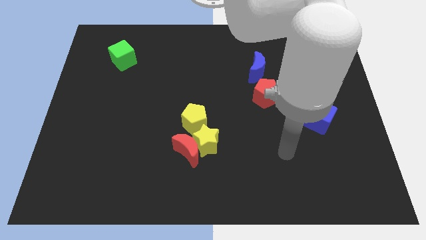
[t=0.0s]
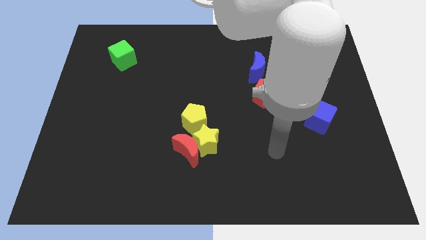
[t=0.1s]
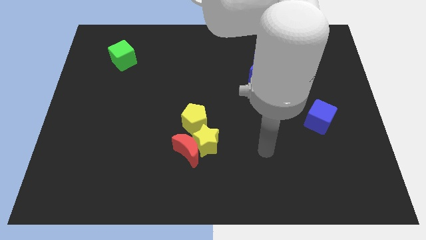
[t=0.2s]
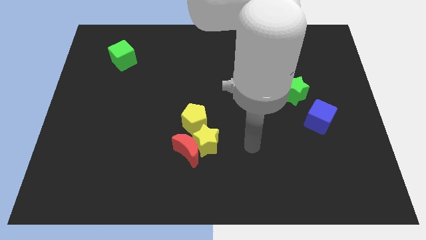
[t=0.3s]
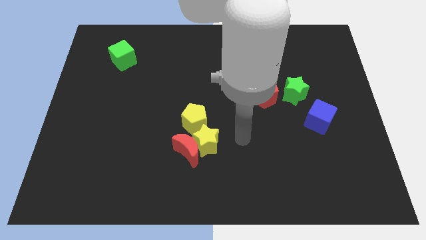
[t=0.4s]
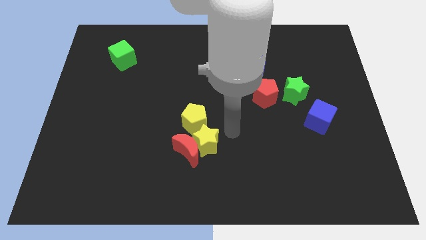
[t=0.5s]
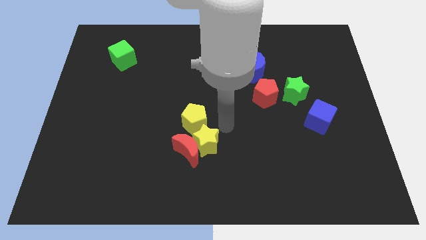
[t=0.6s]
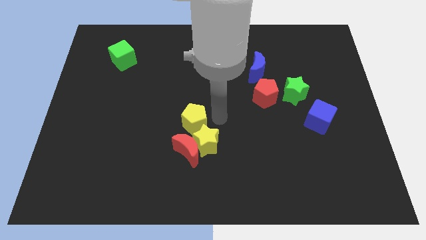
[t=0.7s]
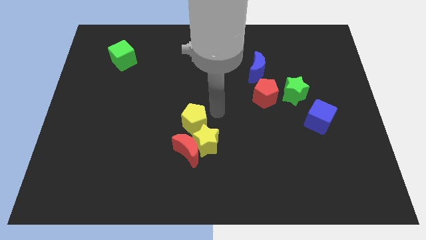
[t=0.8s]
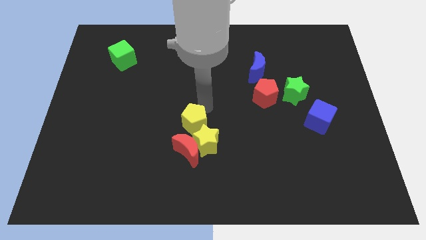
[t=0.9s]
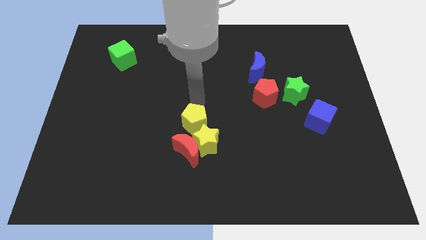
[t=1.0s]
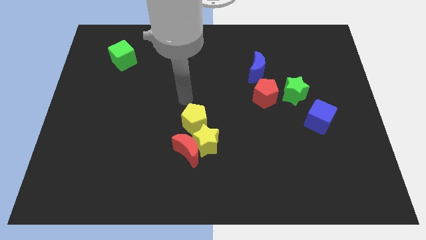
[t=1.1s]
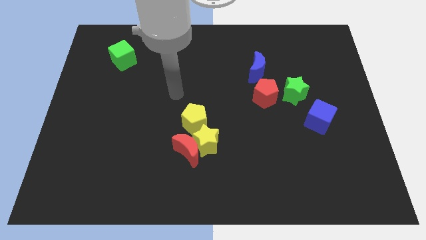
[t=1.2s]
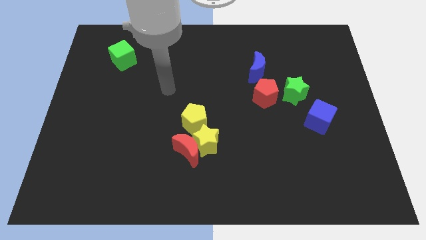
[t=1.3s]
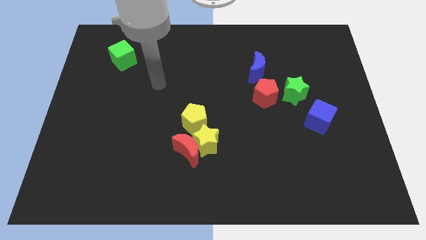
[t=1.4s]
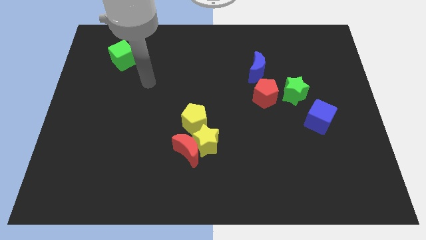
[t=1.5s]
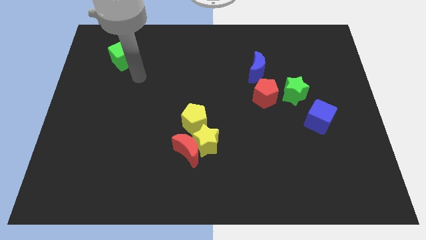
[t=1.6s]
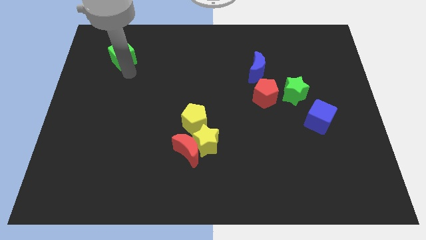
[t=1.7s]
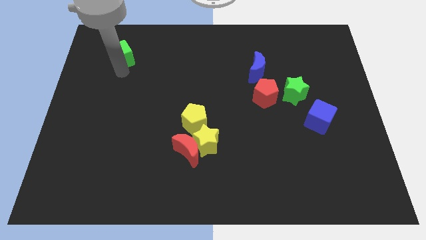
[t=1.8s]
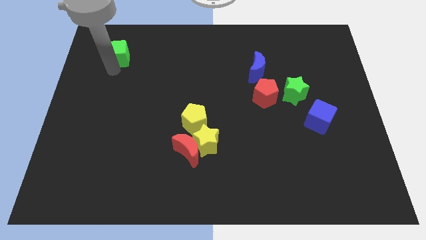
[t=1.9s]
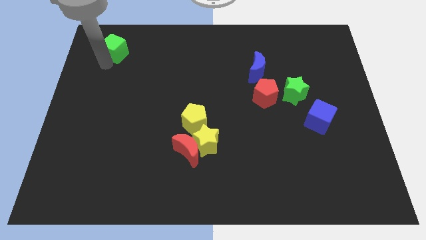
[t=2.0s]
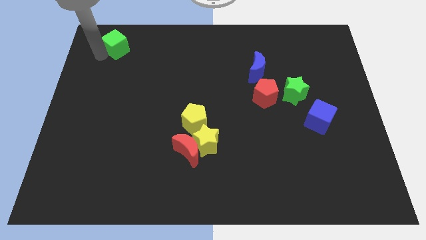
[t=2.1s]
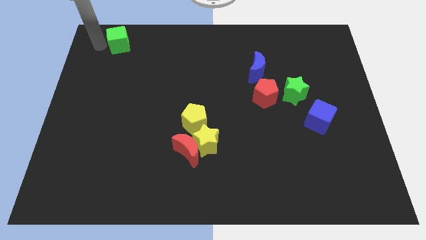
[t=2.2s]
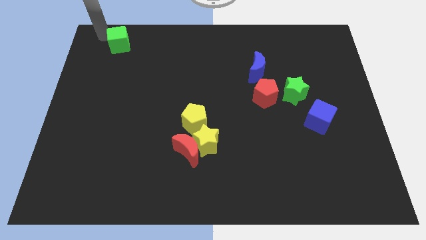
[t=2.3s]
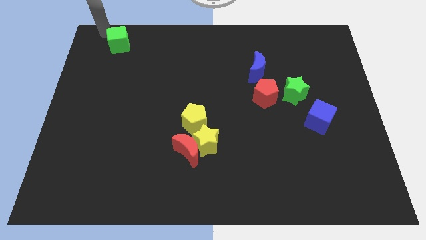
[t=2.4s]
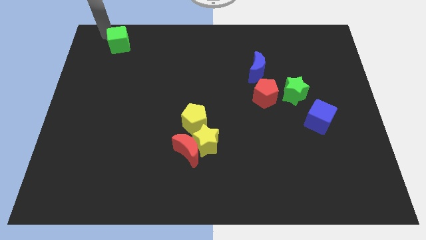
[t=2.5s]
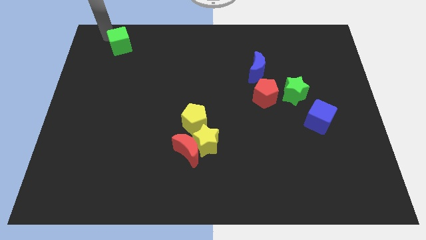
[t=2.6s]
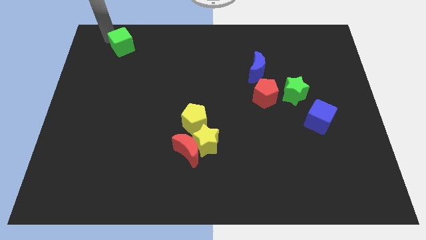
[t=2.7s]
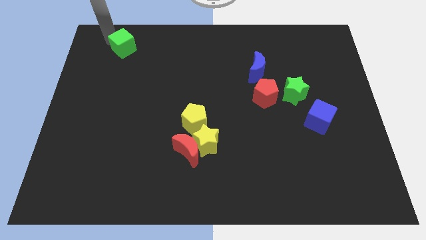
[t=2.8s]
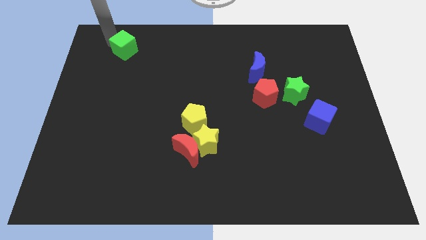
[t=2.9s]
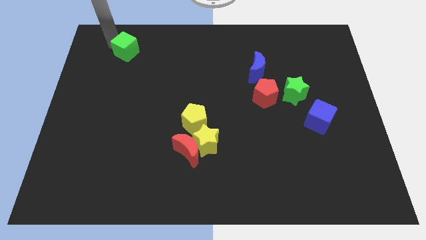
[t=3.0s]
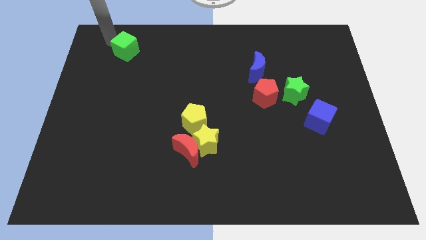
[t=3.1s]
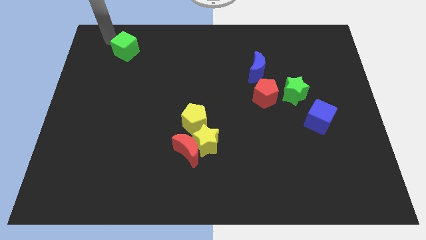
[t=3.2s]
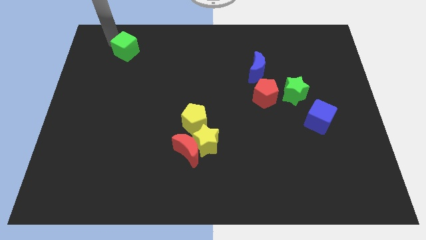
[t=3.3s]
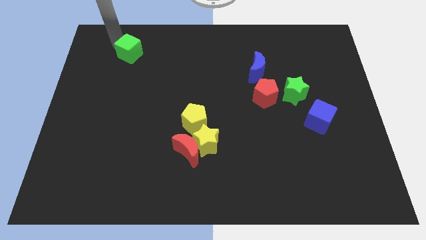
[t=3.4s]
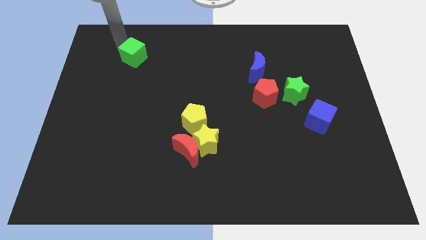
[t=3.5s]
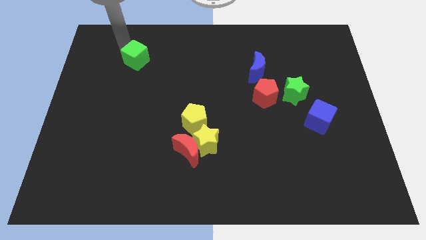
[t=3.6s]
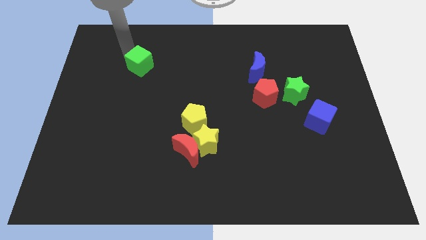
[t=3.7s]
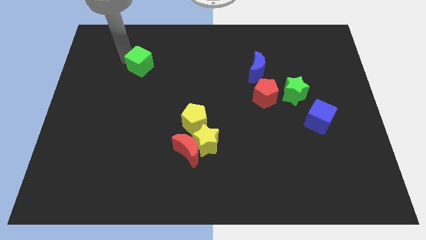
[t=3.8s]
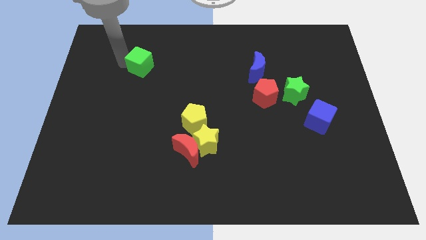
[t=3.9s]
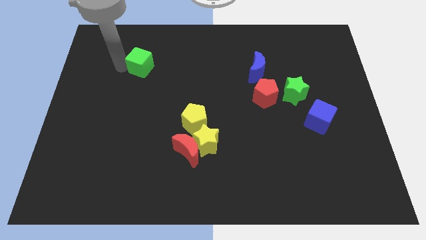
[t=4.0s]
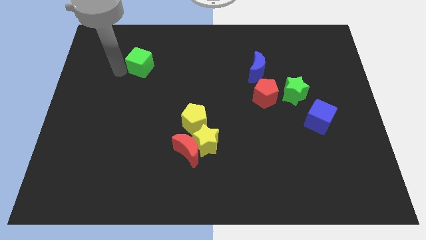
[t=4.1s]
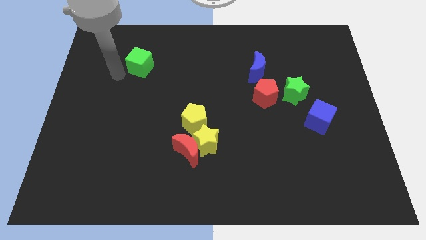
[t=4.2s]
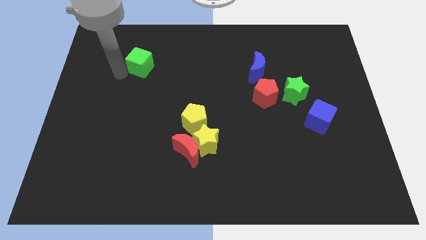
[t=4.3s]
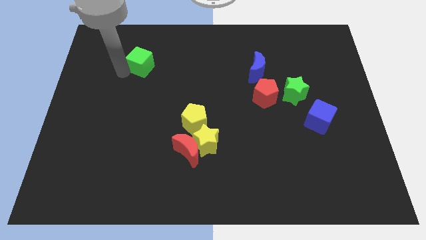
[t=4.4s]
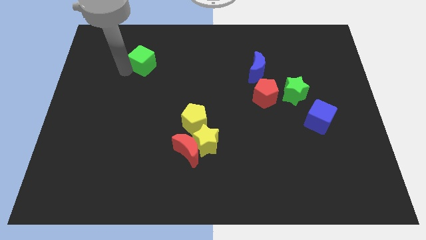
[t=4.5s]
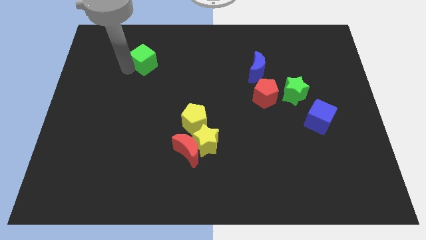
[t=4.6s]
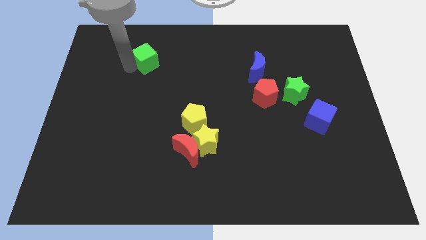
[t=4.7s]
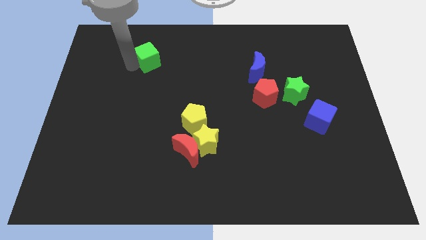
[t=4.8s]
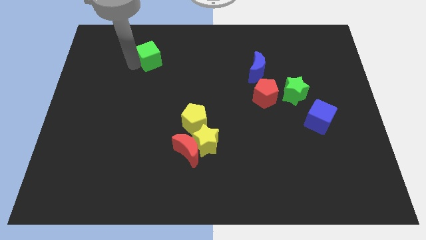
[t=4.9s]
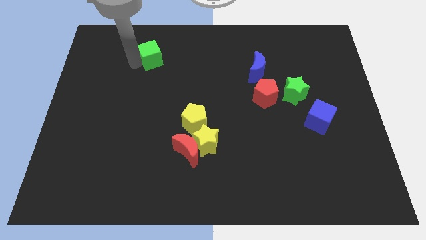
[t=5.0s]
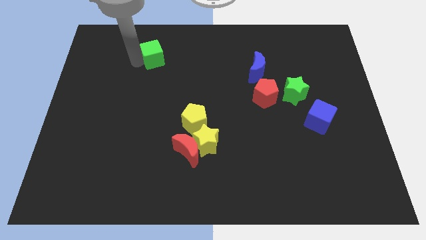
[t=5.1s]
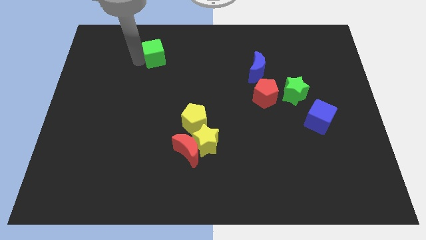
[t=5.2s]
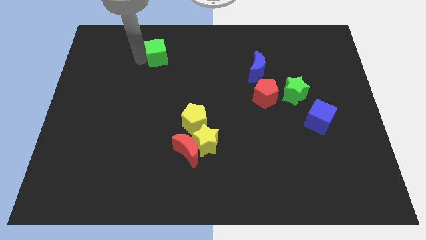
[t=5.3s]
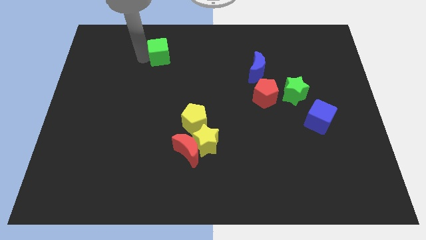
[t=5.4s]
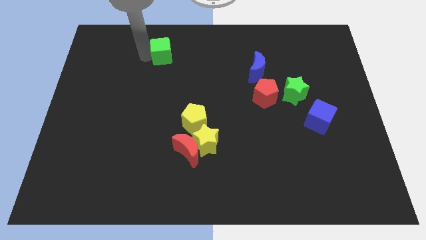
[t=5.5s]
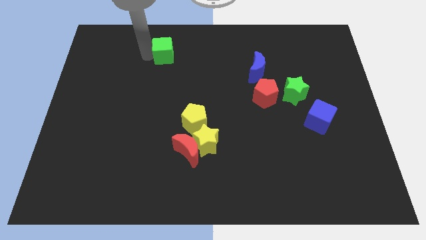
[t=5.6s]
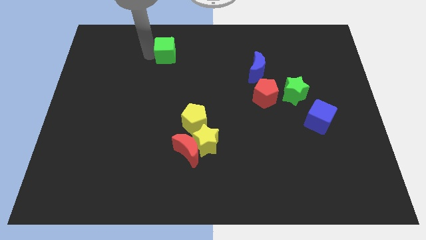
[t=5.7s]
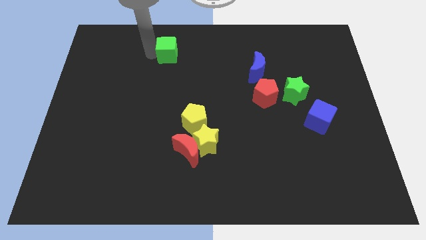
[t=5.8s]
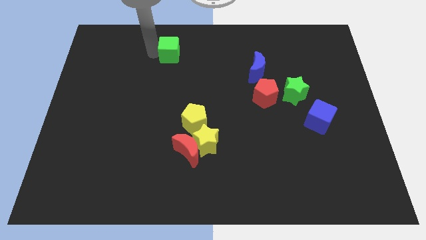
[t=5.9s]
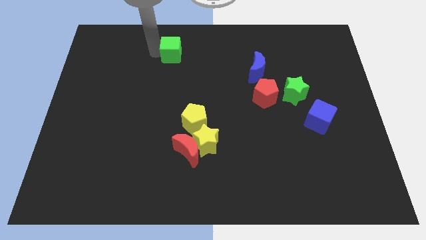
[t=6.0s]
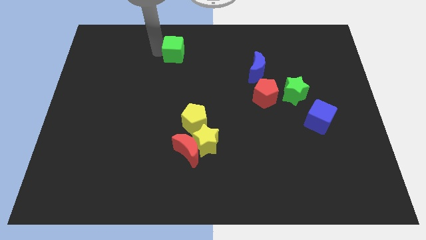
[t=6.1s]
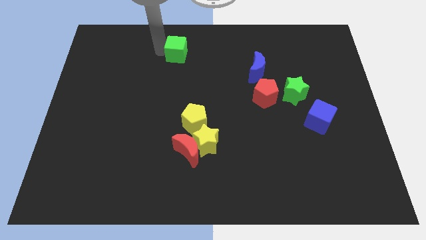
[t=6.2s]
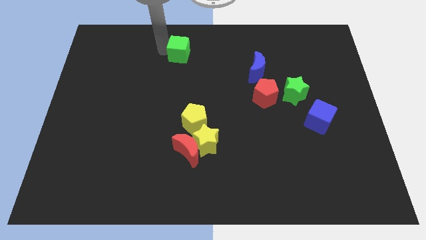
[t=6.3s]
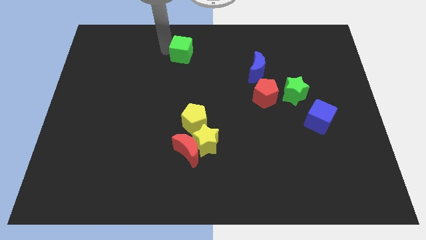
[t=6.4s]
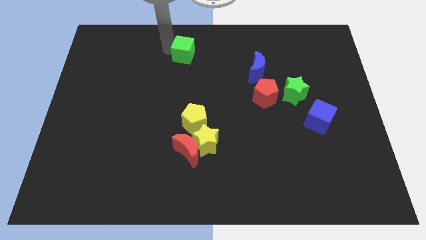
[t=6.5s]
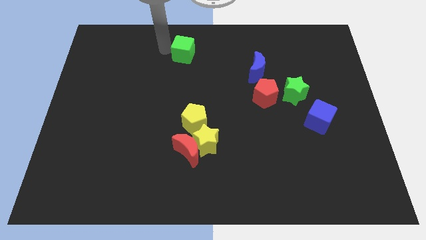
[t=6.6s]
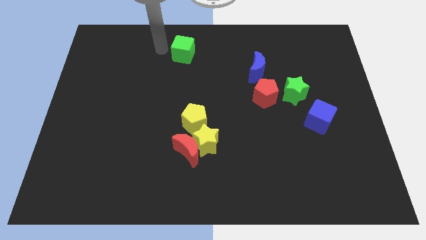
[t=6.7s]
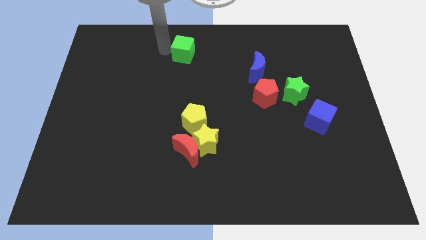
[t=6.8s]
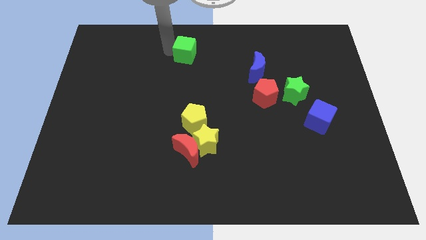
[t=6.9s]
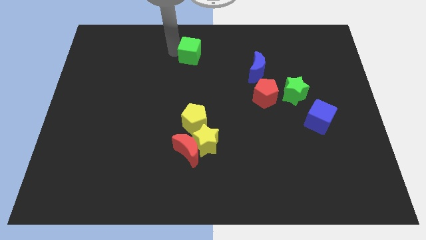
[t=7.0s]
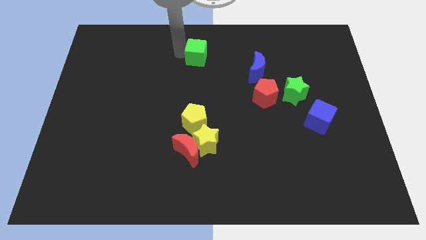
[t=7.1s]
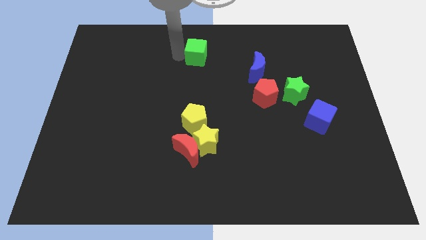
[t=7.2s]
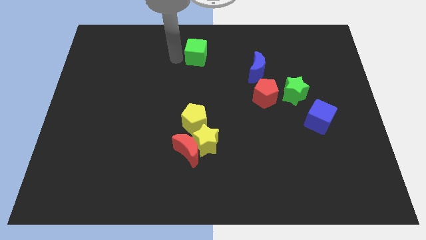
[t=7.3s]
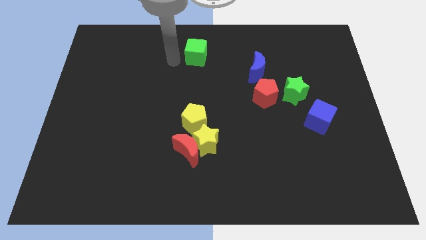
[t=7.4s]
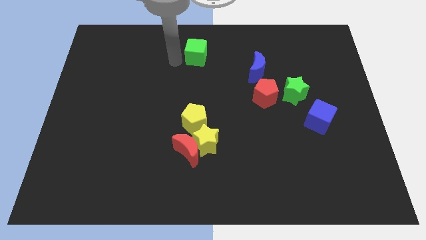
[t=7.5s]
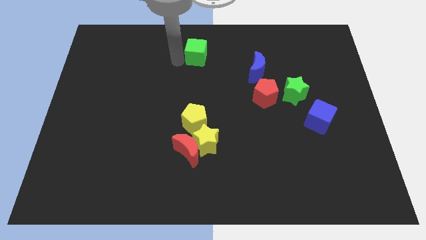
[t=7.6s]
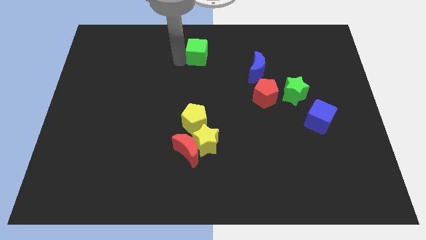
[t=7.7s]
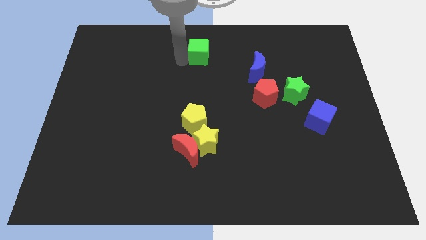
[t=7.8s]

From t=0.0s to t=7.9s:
push the green cube to the right
